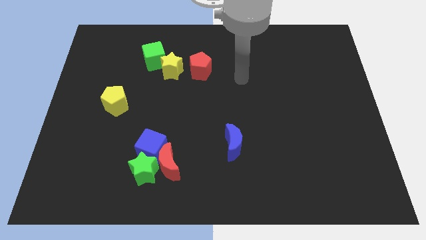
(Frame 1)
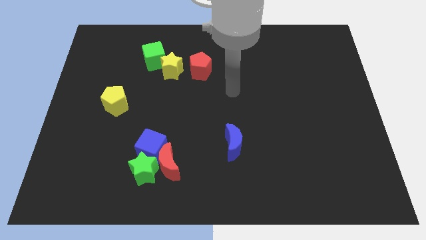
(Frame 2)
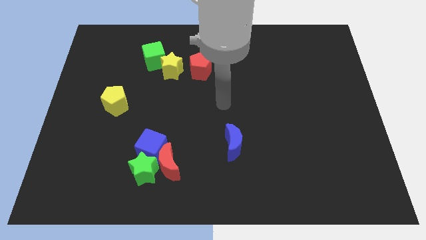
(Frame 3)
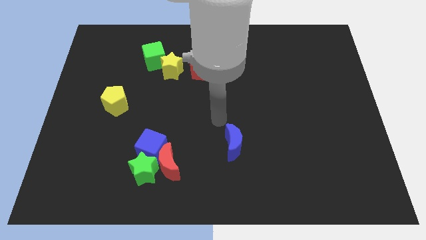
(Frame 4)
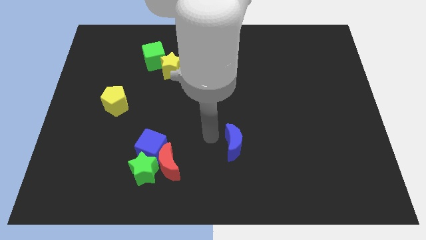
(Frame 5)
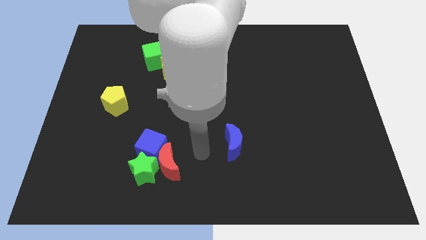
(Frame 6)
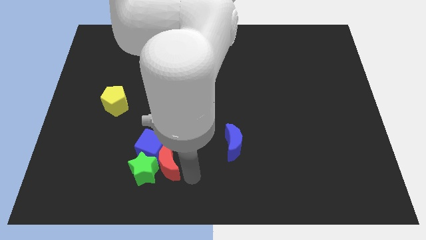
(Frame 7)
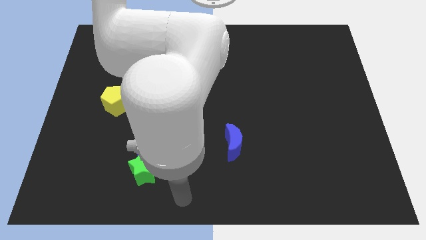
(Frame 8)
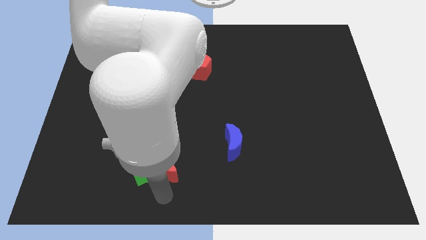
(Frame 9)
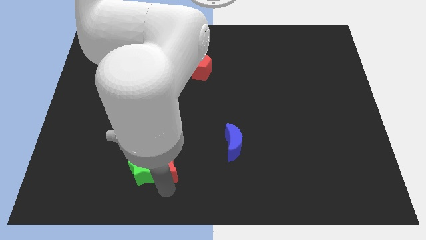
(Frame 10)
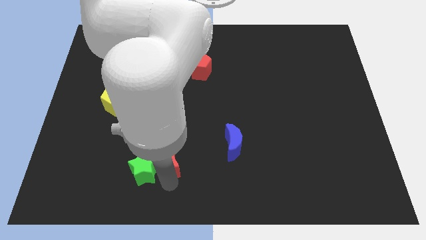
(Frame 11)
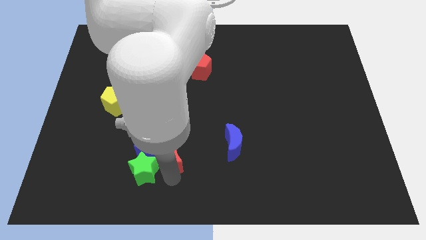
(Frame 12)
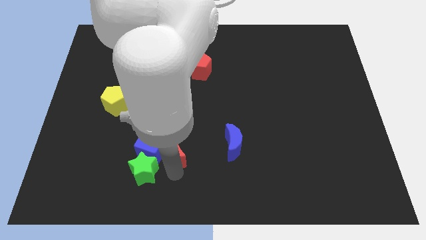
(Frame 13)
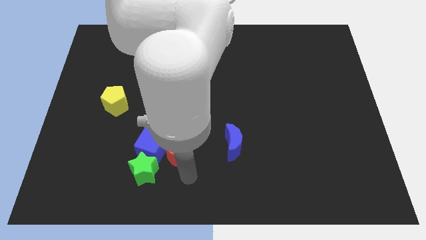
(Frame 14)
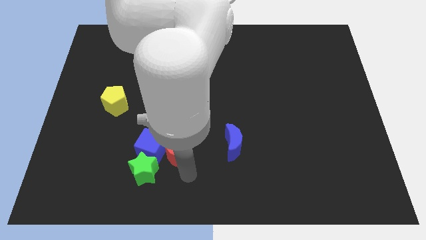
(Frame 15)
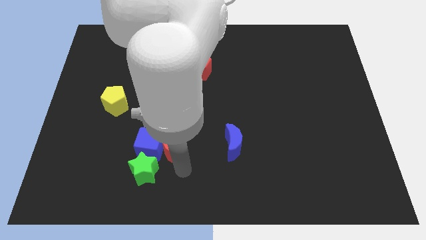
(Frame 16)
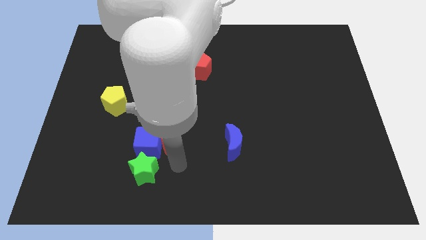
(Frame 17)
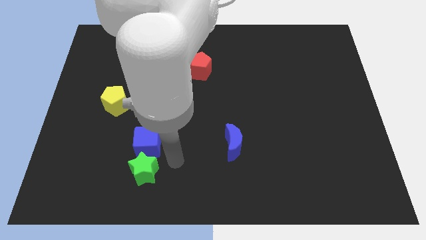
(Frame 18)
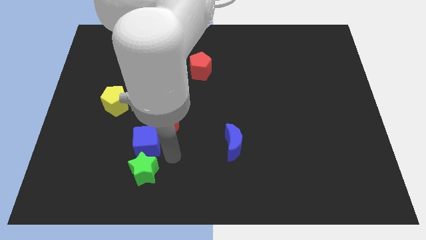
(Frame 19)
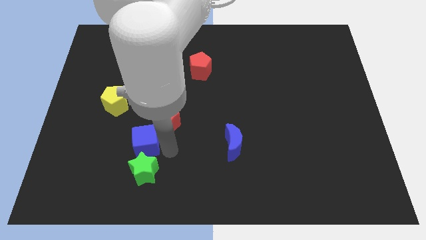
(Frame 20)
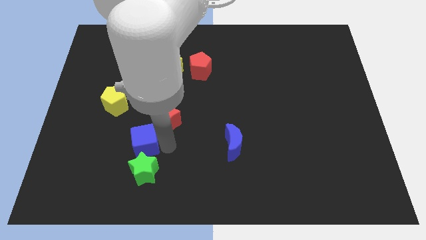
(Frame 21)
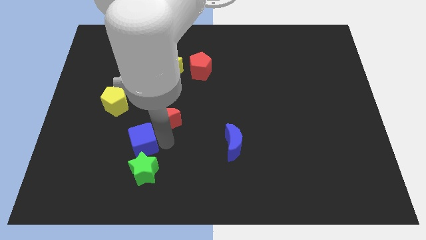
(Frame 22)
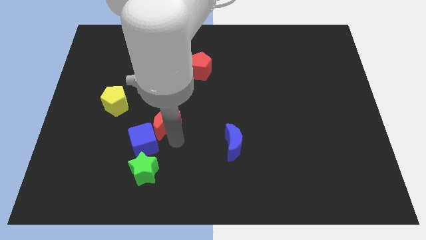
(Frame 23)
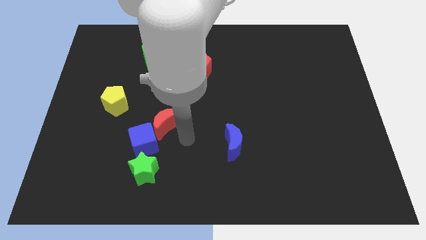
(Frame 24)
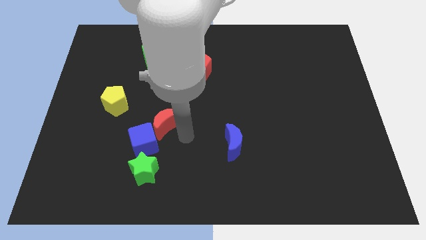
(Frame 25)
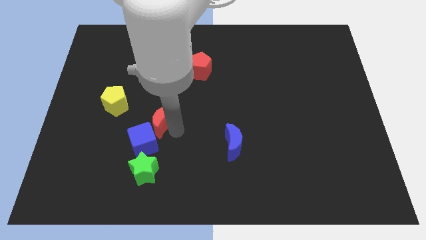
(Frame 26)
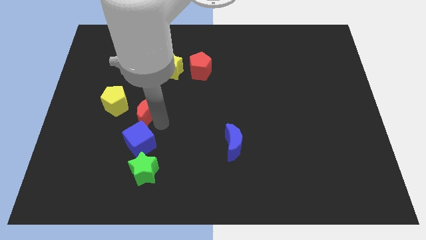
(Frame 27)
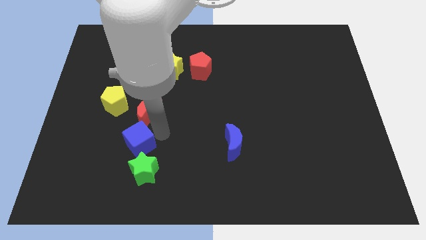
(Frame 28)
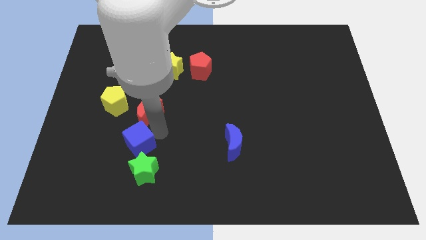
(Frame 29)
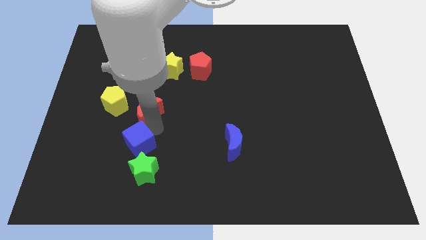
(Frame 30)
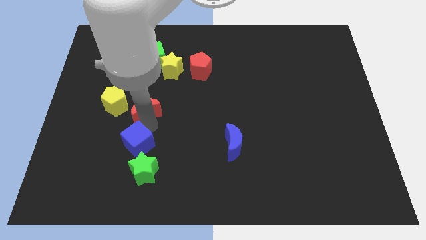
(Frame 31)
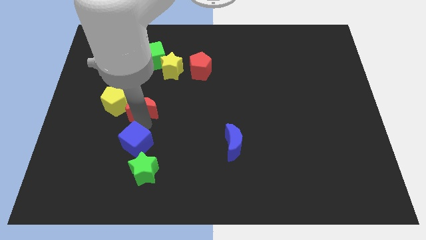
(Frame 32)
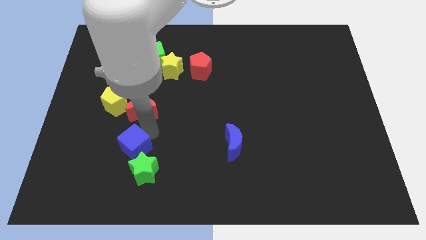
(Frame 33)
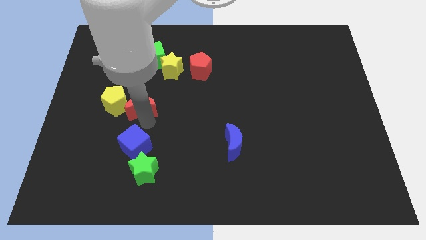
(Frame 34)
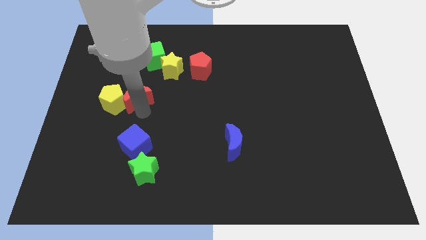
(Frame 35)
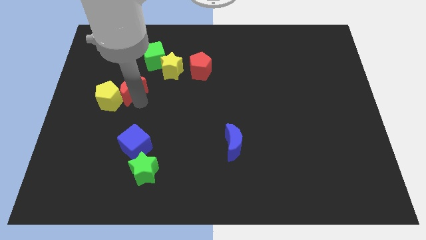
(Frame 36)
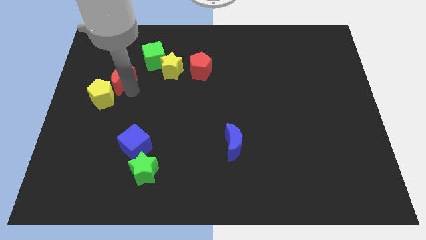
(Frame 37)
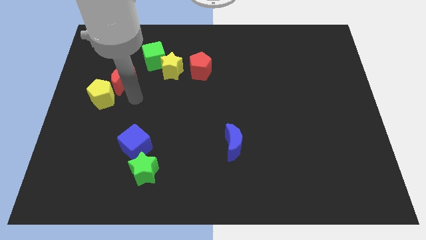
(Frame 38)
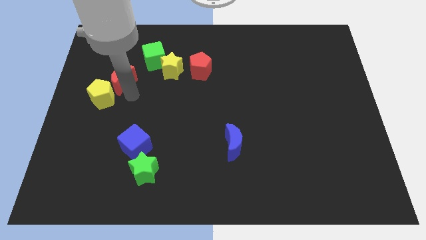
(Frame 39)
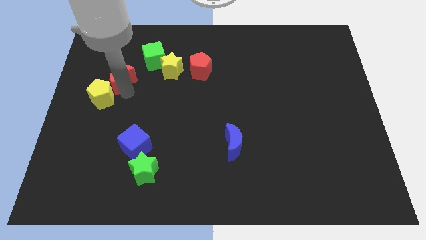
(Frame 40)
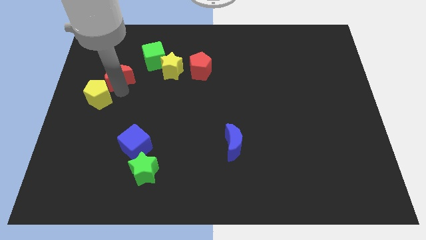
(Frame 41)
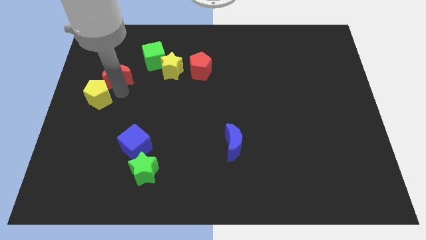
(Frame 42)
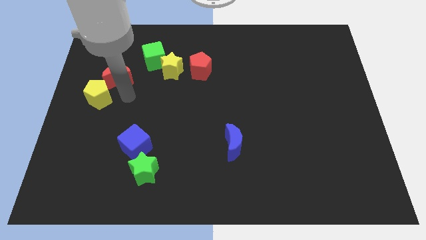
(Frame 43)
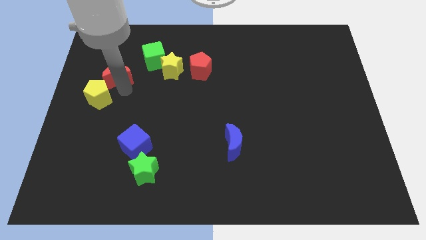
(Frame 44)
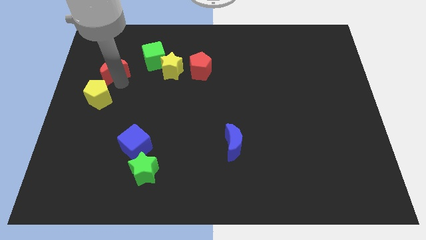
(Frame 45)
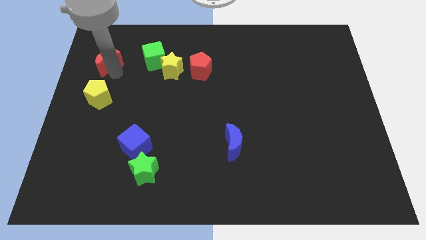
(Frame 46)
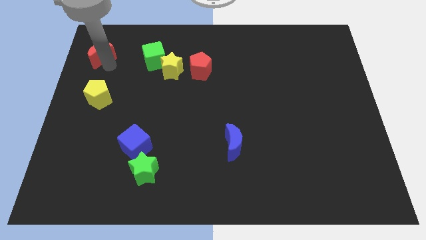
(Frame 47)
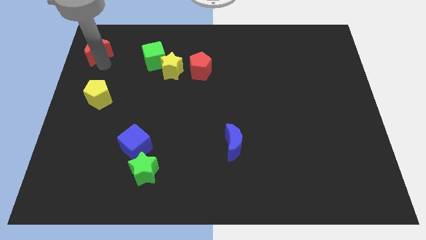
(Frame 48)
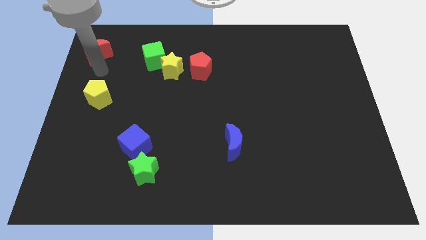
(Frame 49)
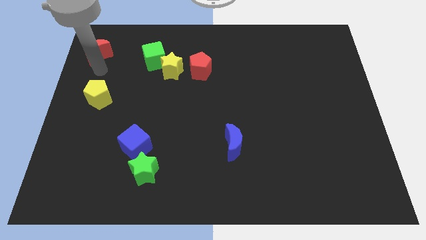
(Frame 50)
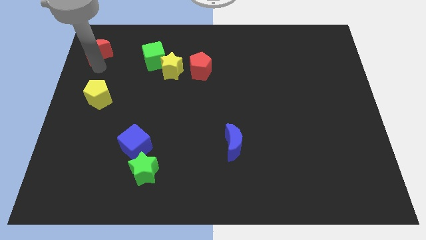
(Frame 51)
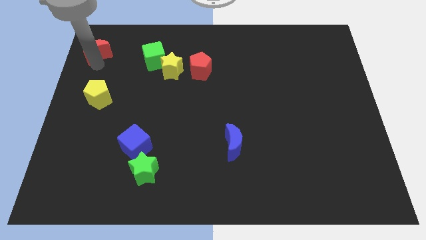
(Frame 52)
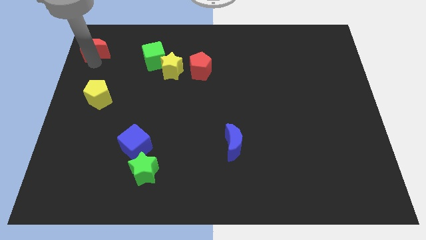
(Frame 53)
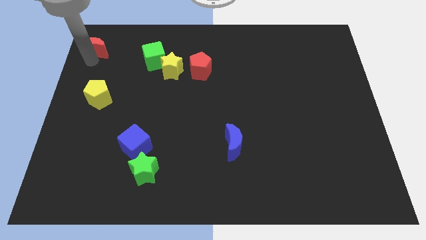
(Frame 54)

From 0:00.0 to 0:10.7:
put the red moon to the top left corner
